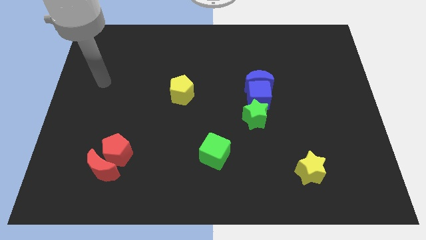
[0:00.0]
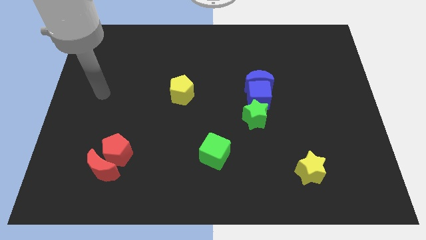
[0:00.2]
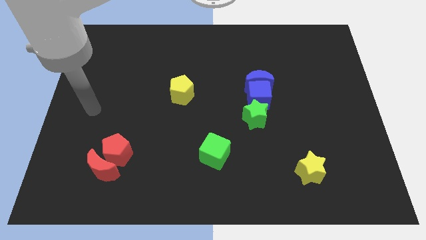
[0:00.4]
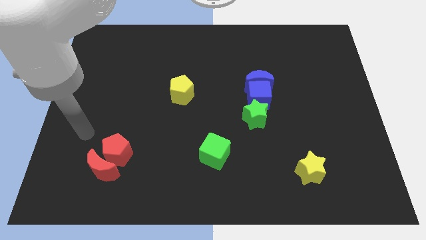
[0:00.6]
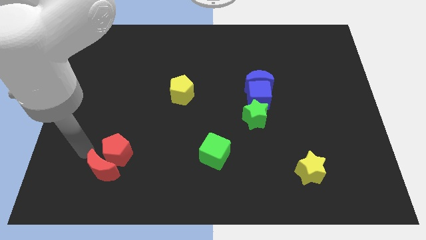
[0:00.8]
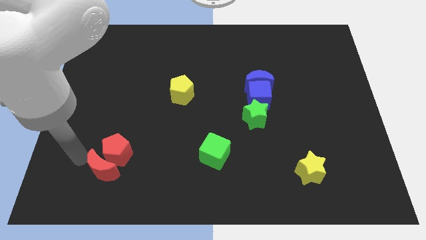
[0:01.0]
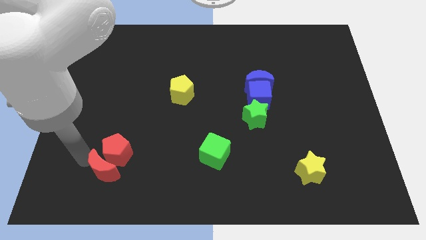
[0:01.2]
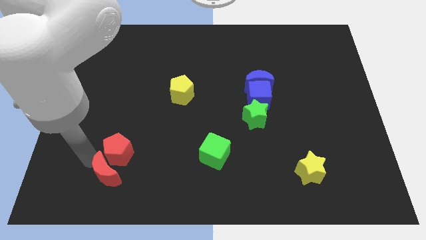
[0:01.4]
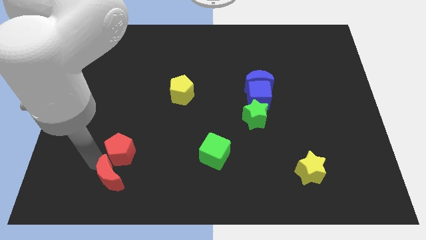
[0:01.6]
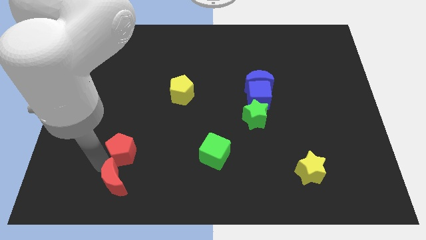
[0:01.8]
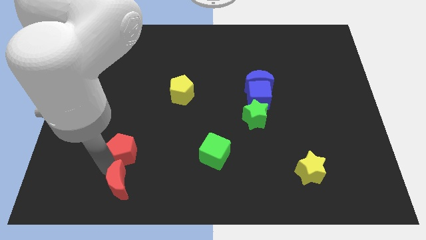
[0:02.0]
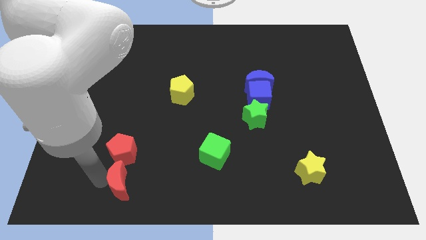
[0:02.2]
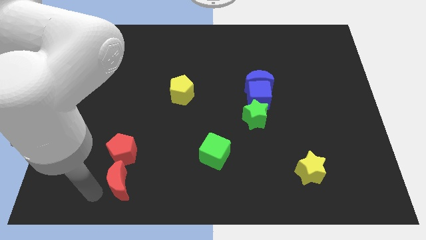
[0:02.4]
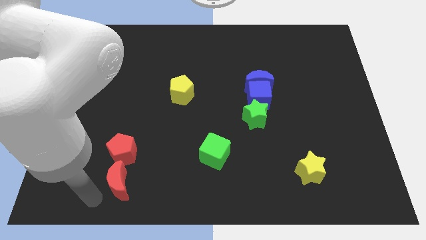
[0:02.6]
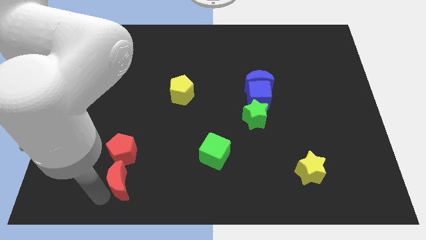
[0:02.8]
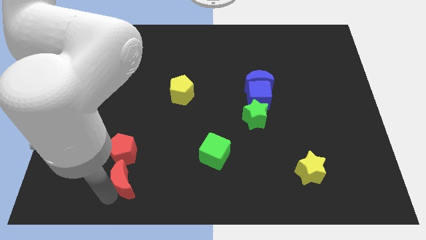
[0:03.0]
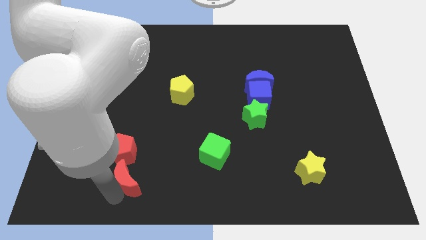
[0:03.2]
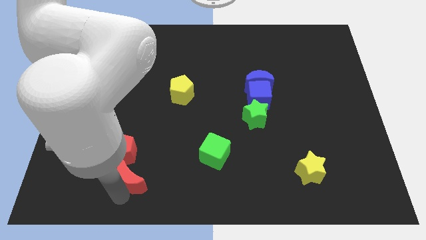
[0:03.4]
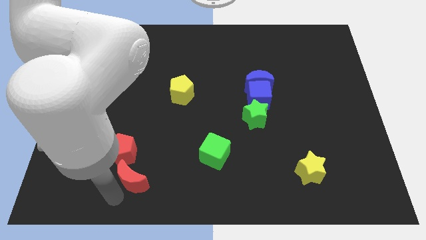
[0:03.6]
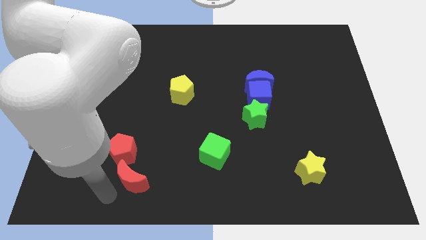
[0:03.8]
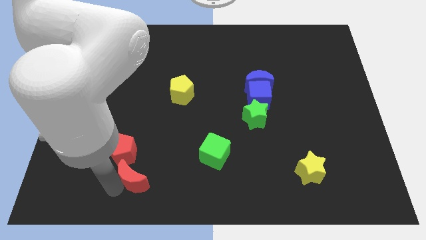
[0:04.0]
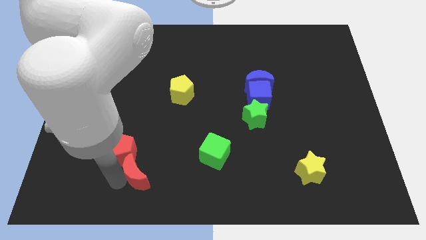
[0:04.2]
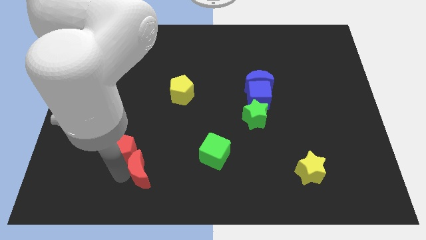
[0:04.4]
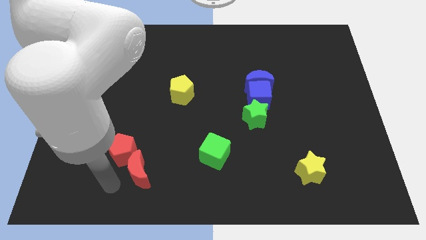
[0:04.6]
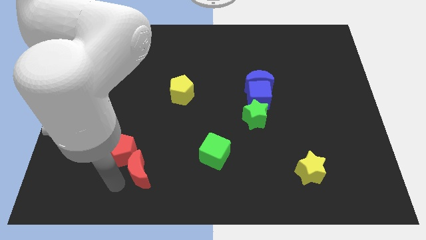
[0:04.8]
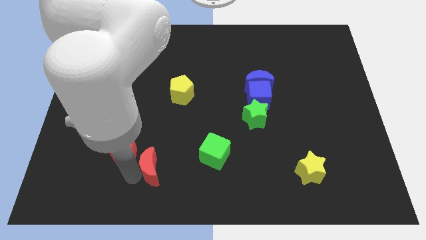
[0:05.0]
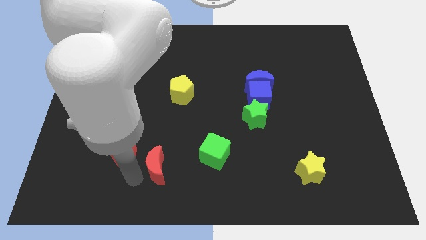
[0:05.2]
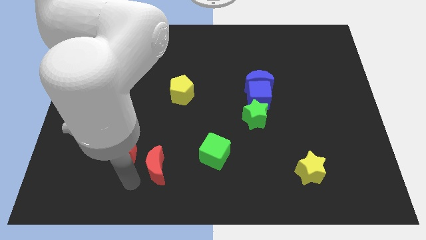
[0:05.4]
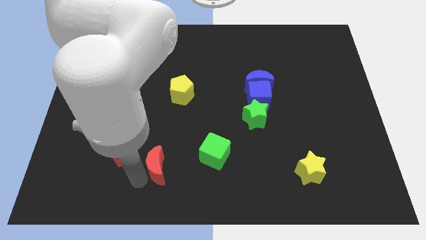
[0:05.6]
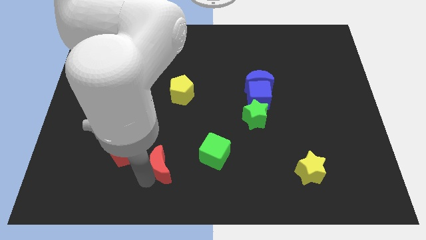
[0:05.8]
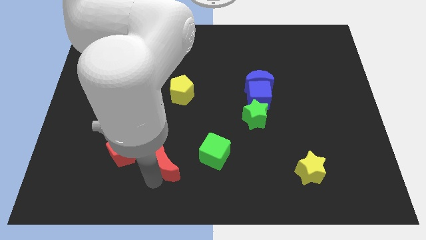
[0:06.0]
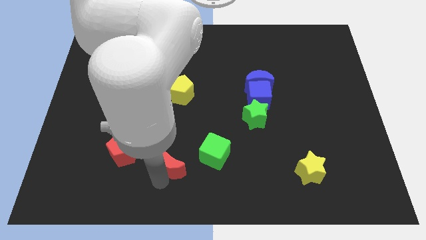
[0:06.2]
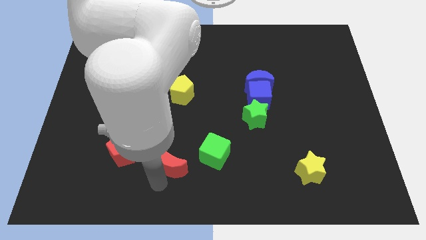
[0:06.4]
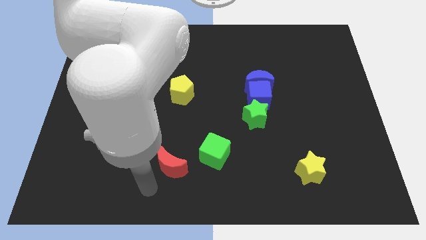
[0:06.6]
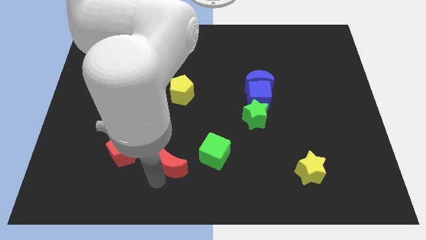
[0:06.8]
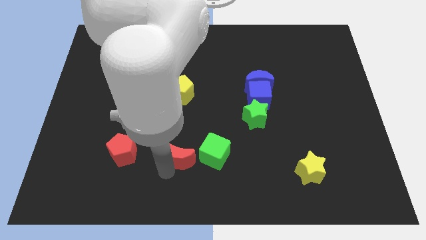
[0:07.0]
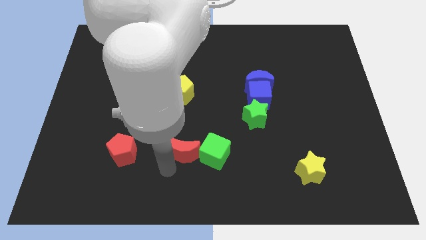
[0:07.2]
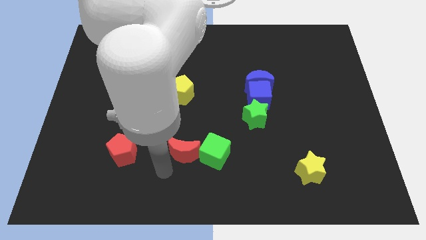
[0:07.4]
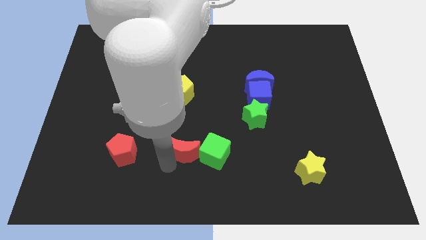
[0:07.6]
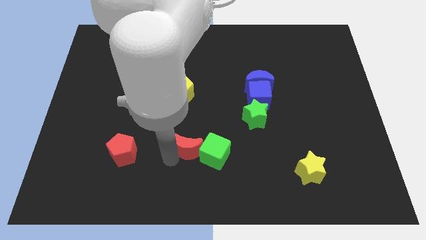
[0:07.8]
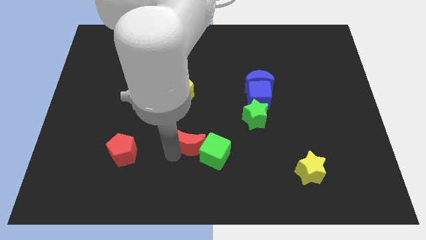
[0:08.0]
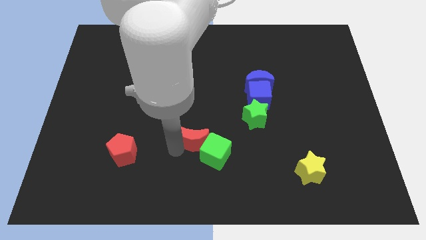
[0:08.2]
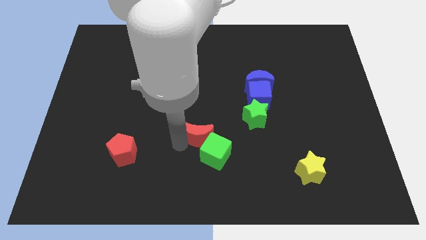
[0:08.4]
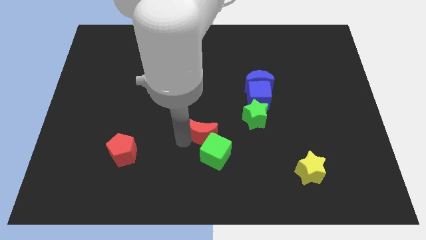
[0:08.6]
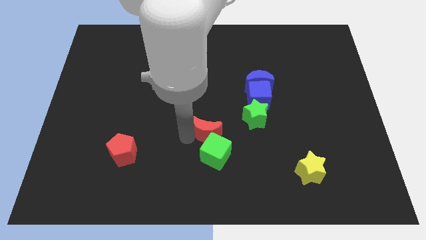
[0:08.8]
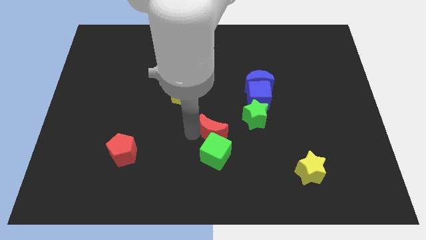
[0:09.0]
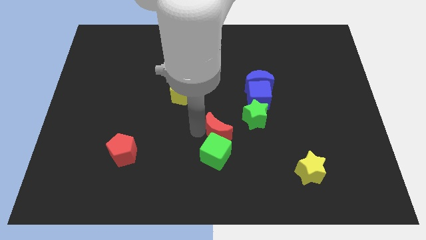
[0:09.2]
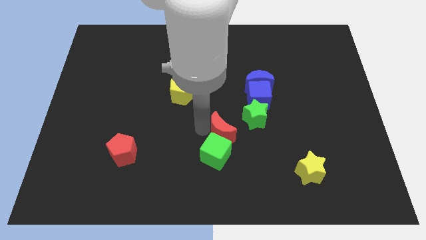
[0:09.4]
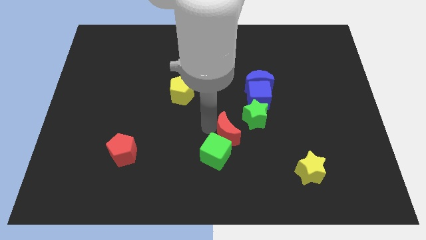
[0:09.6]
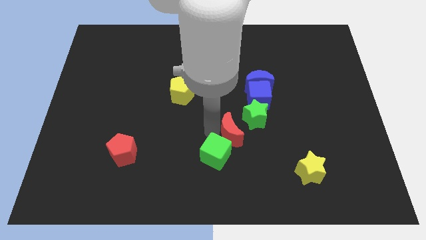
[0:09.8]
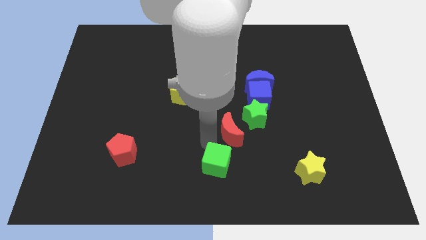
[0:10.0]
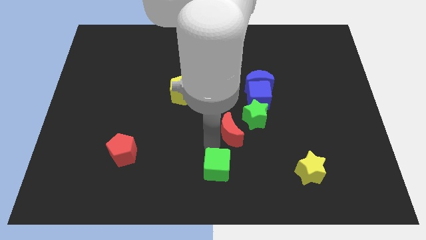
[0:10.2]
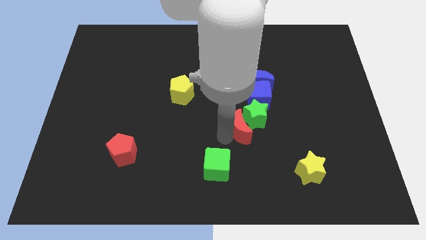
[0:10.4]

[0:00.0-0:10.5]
move the red moon to the green star

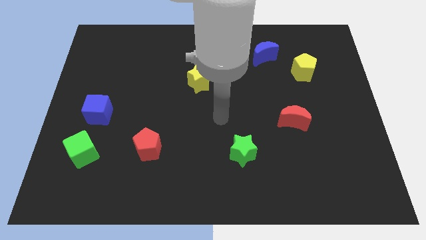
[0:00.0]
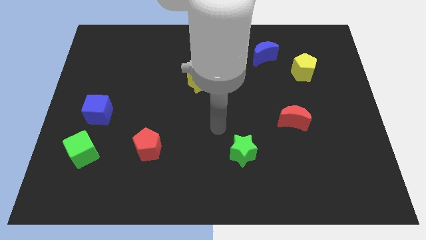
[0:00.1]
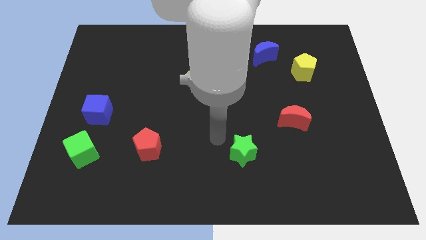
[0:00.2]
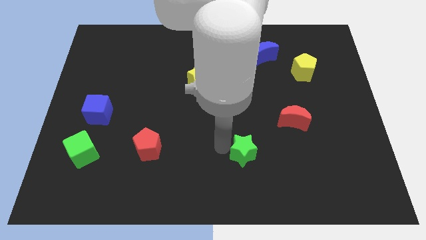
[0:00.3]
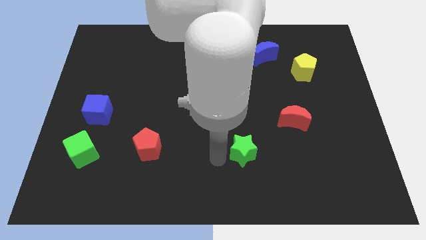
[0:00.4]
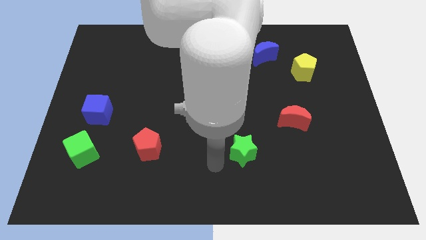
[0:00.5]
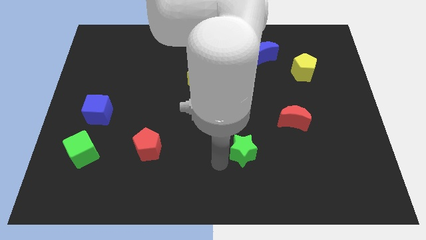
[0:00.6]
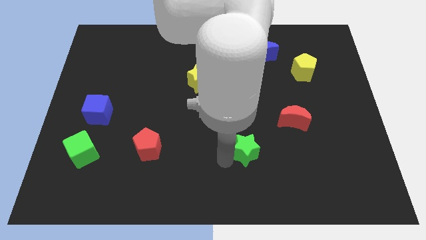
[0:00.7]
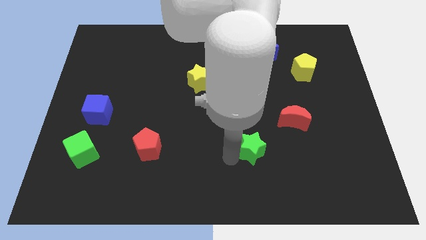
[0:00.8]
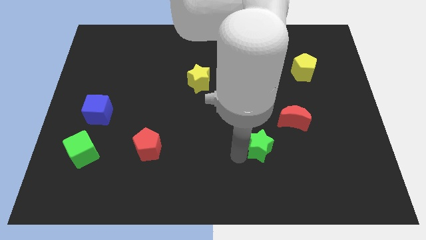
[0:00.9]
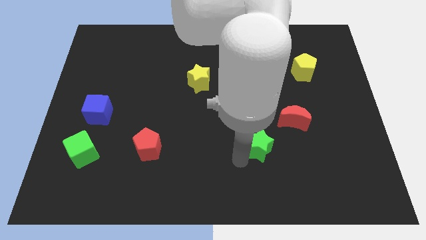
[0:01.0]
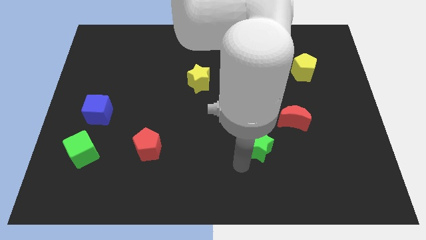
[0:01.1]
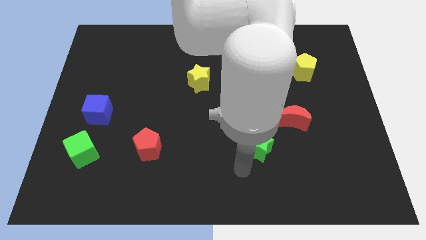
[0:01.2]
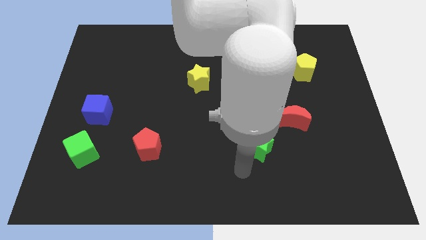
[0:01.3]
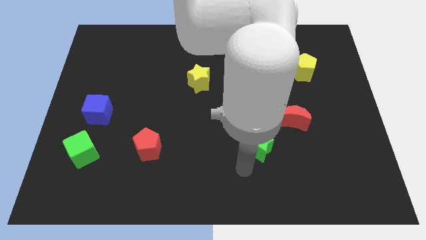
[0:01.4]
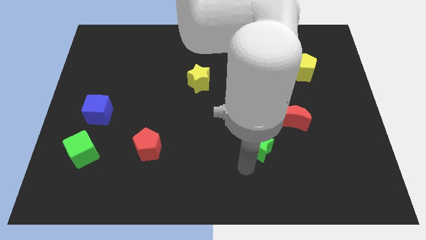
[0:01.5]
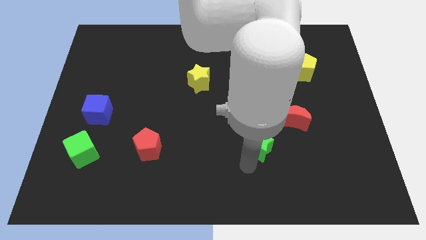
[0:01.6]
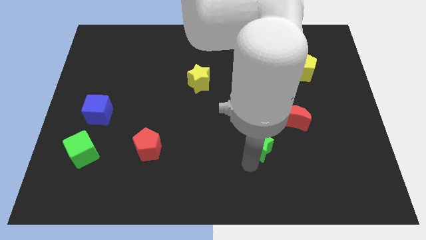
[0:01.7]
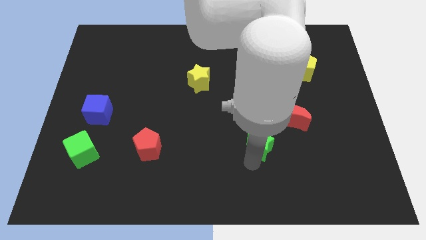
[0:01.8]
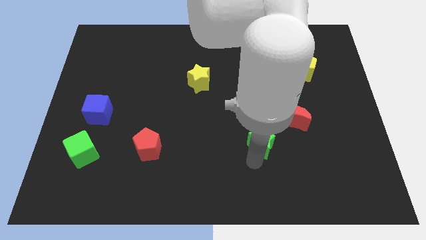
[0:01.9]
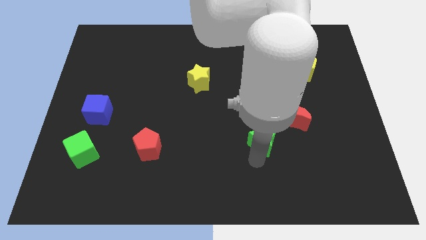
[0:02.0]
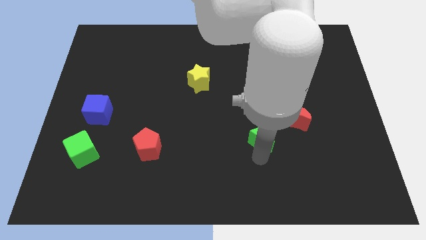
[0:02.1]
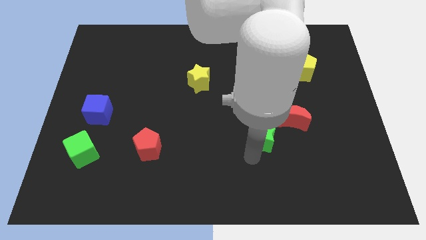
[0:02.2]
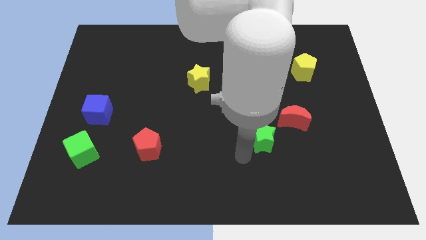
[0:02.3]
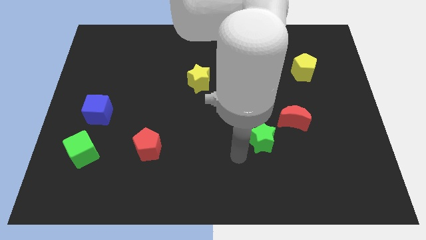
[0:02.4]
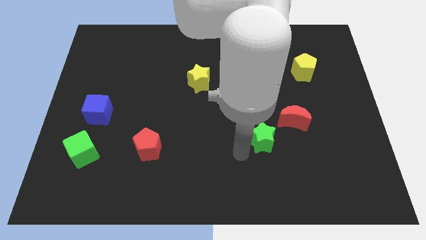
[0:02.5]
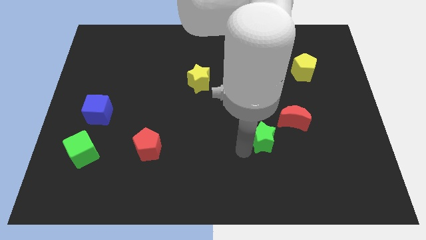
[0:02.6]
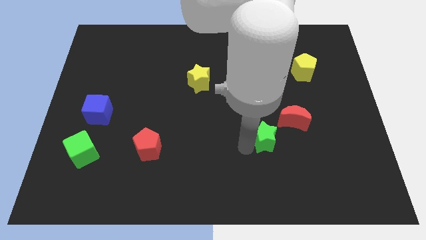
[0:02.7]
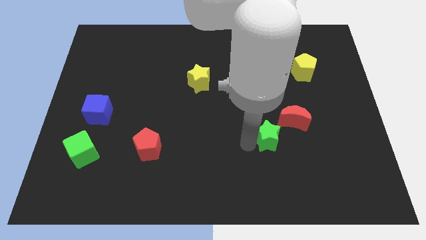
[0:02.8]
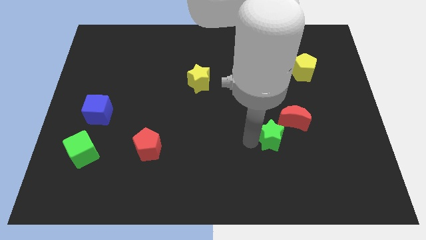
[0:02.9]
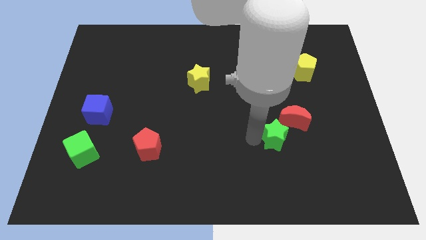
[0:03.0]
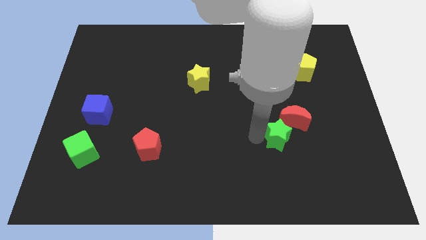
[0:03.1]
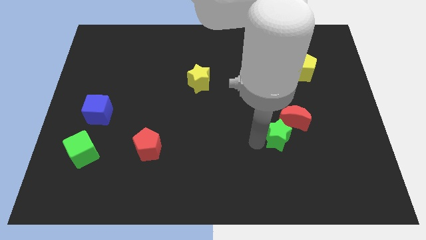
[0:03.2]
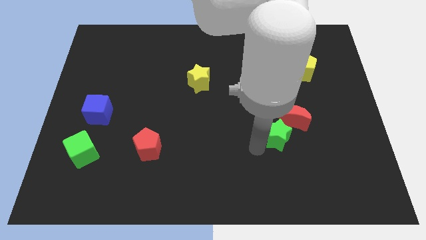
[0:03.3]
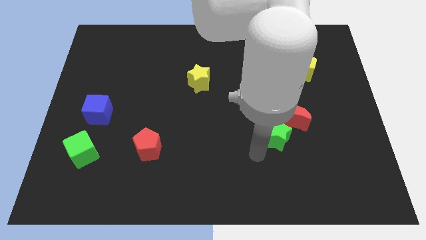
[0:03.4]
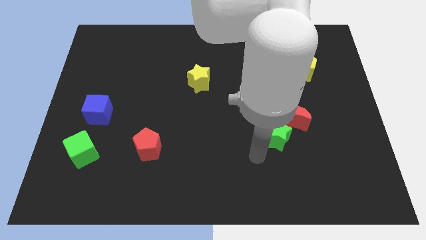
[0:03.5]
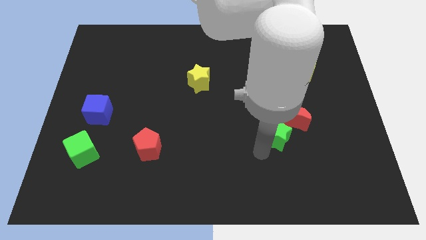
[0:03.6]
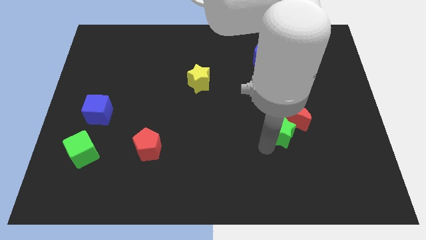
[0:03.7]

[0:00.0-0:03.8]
put the green star to the red moon
